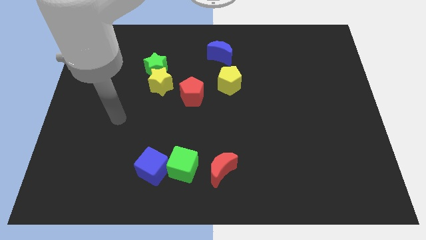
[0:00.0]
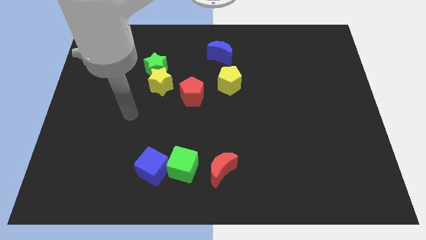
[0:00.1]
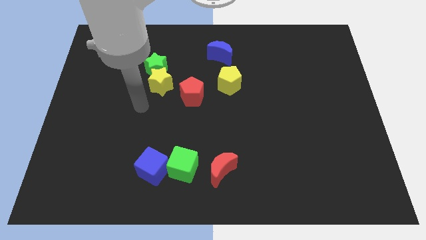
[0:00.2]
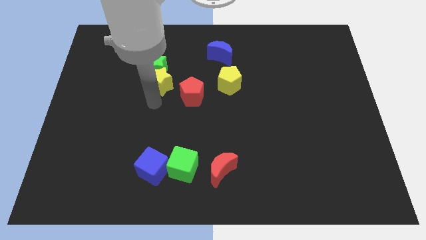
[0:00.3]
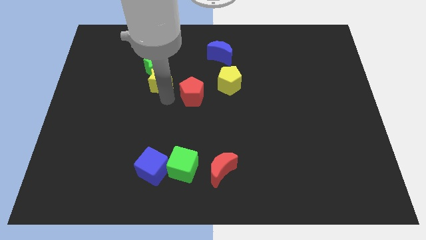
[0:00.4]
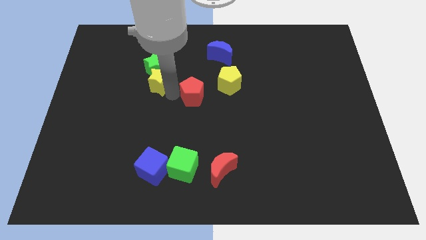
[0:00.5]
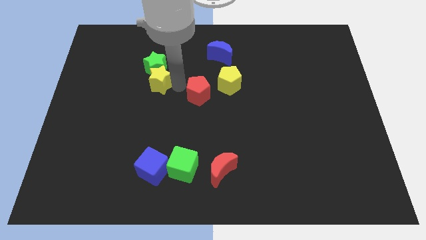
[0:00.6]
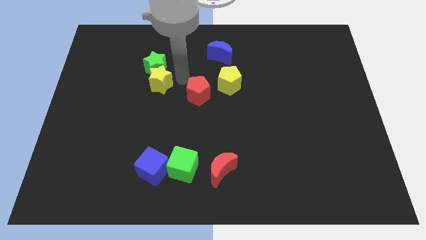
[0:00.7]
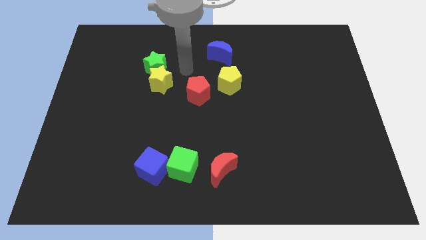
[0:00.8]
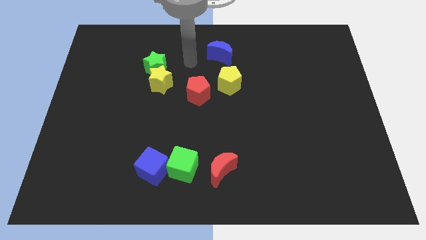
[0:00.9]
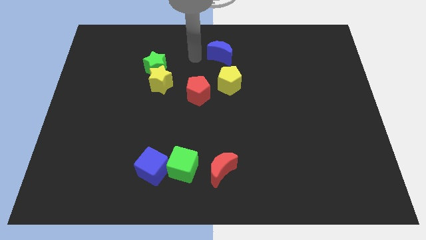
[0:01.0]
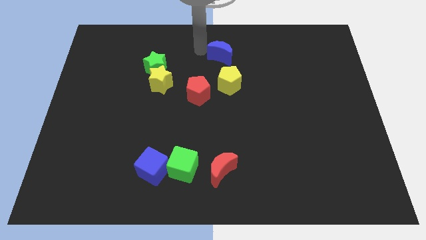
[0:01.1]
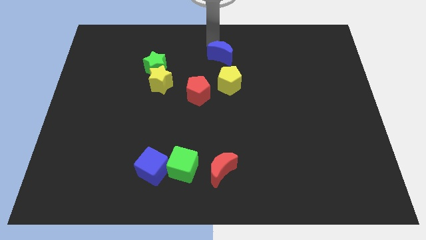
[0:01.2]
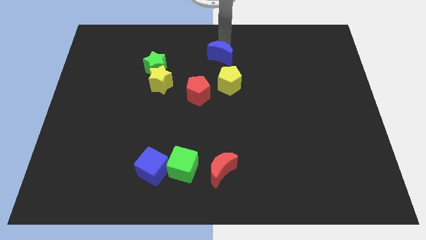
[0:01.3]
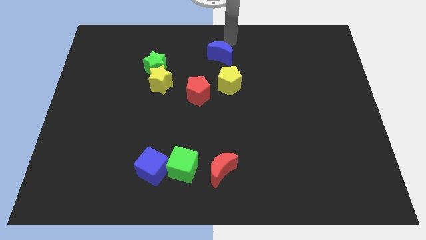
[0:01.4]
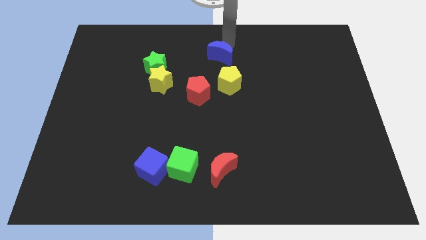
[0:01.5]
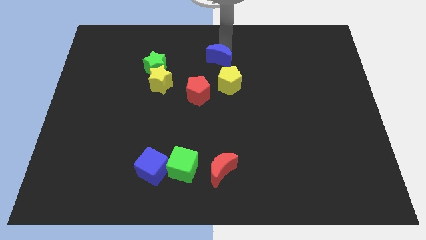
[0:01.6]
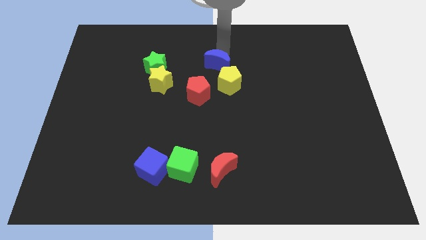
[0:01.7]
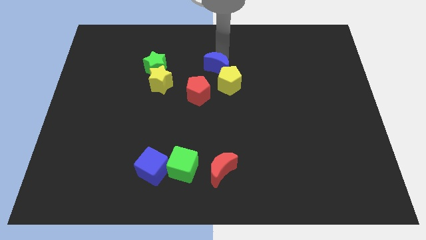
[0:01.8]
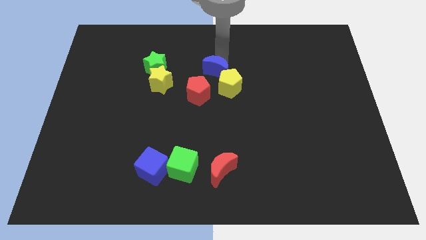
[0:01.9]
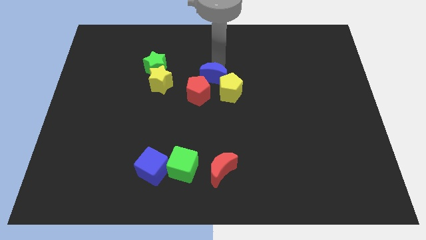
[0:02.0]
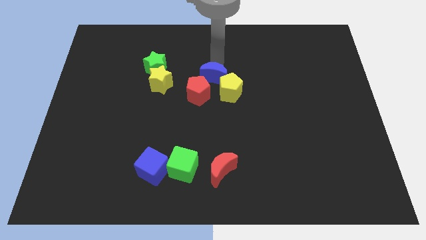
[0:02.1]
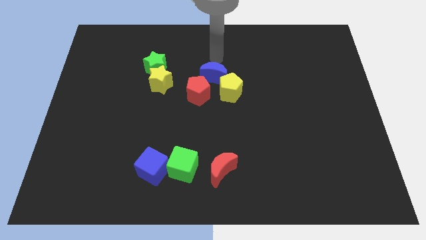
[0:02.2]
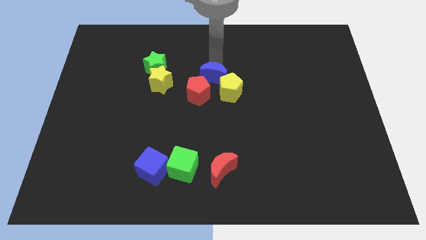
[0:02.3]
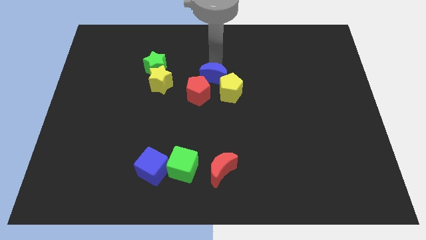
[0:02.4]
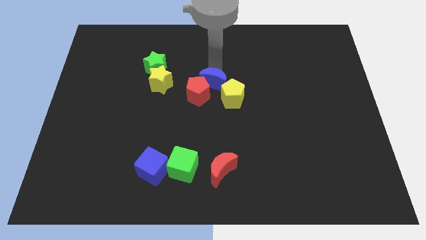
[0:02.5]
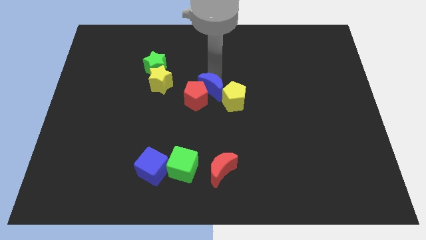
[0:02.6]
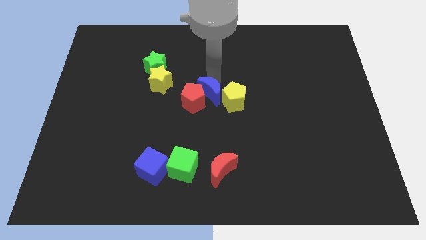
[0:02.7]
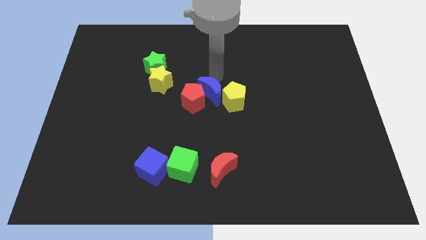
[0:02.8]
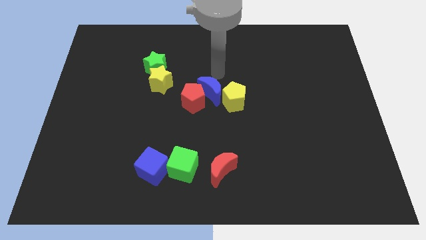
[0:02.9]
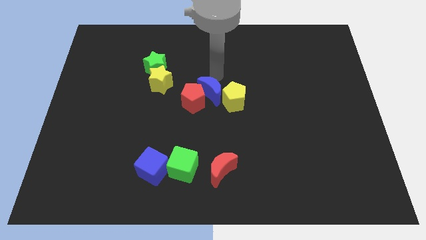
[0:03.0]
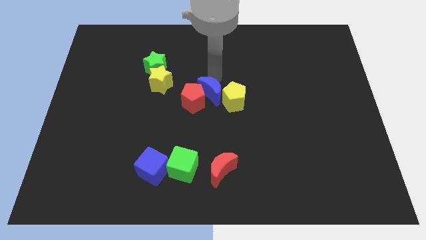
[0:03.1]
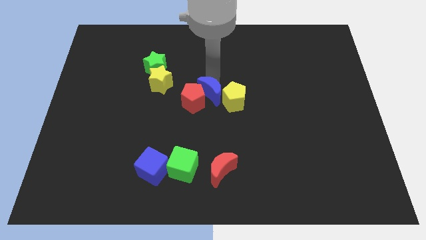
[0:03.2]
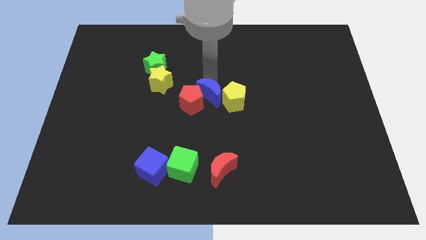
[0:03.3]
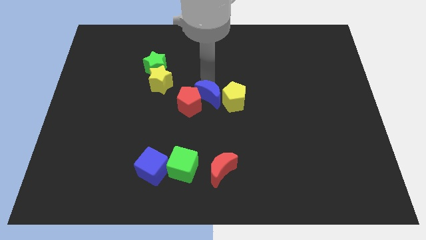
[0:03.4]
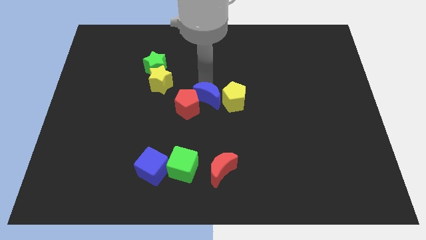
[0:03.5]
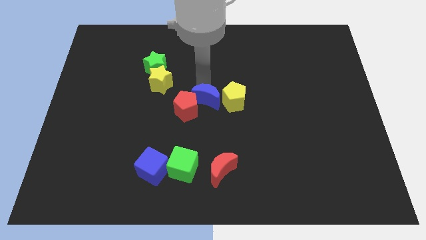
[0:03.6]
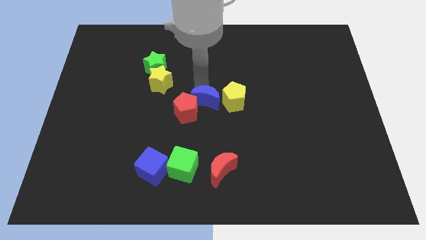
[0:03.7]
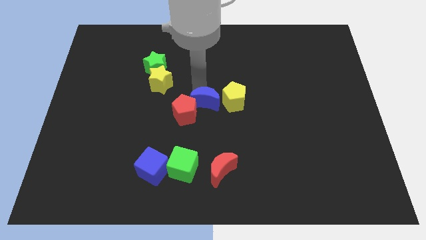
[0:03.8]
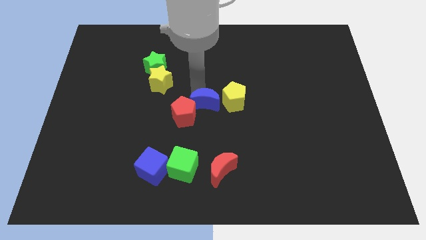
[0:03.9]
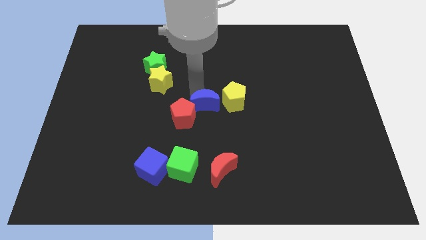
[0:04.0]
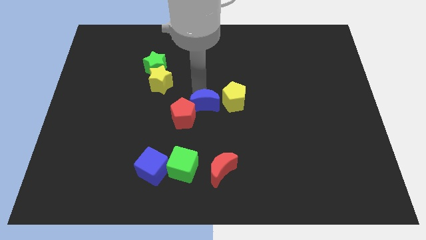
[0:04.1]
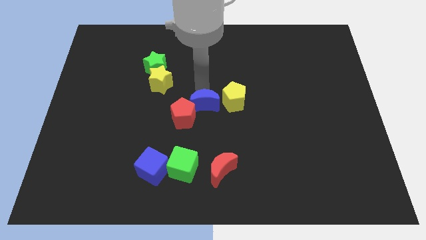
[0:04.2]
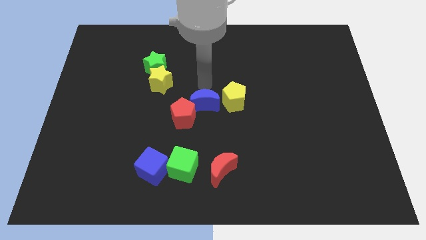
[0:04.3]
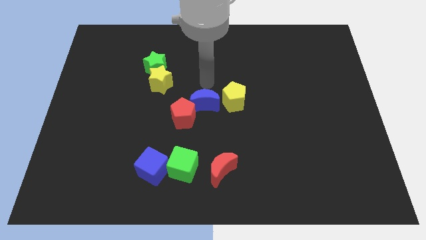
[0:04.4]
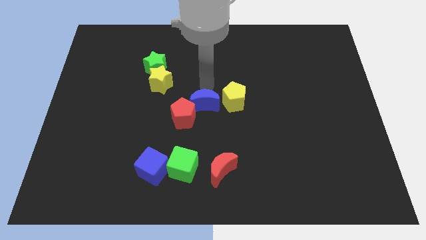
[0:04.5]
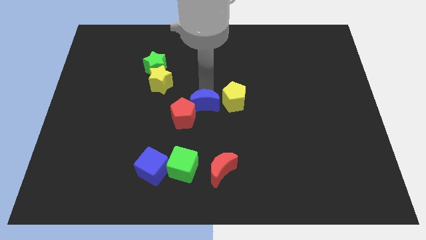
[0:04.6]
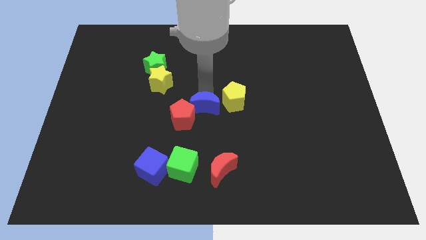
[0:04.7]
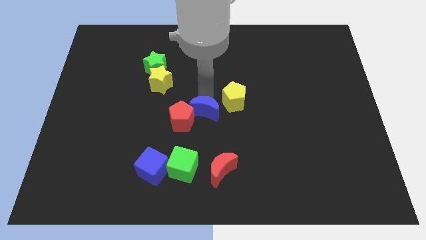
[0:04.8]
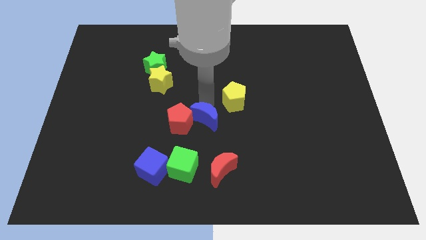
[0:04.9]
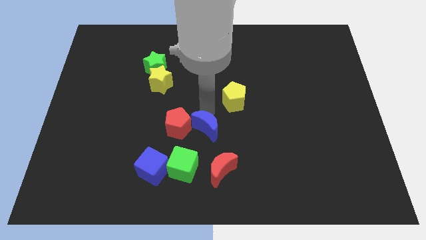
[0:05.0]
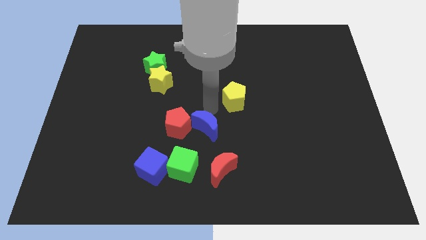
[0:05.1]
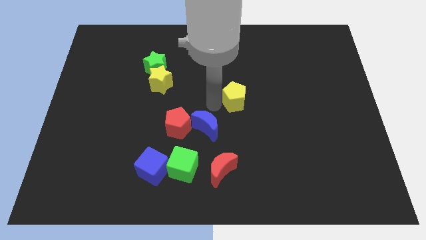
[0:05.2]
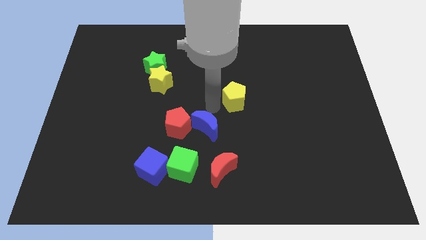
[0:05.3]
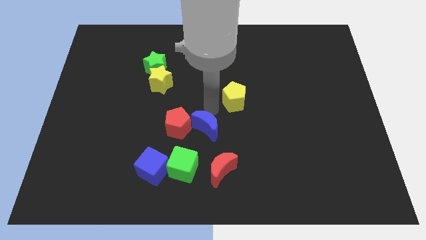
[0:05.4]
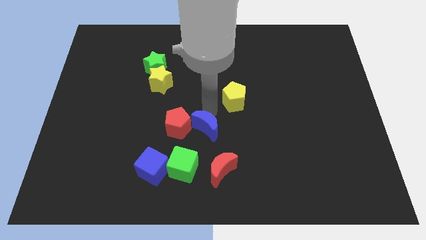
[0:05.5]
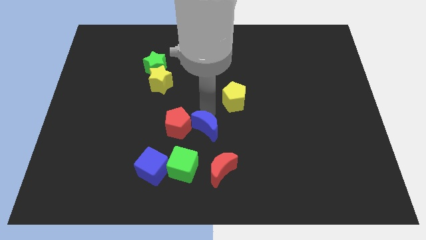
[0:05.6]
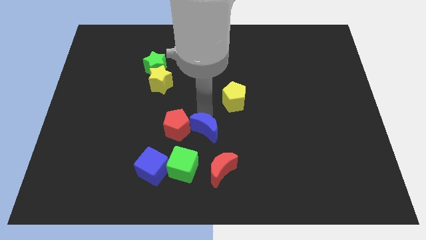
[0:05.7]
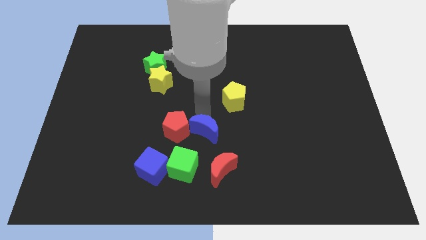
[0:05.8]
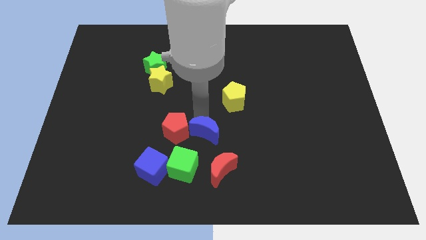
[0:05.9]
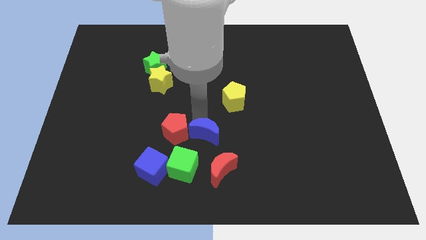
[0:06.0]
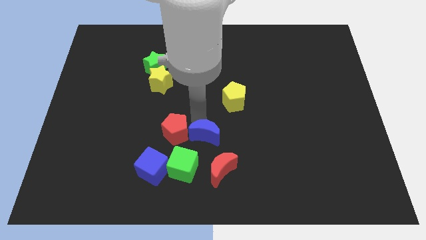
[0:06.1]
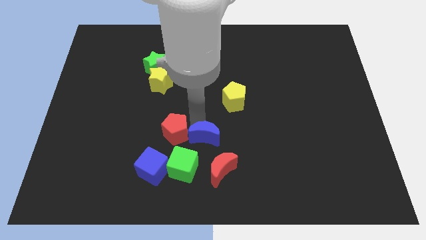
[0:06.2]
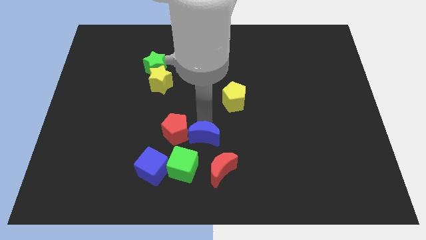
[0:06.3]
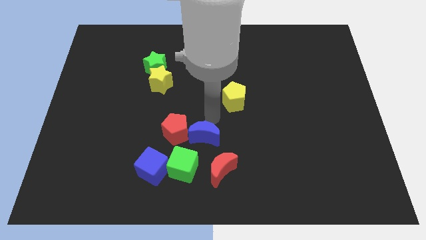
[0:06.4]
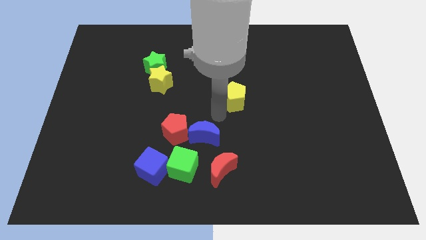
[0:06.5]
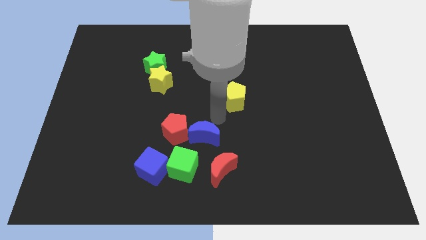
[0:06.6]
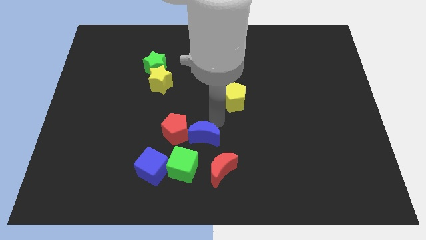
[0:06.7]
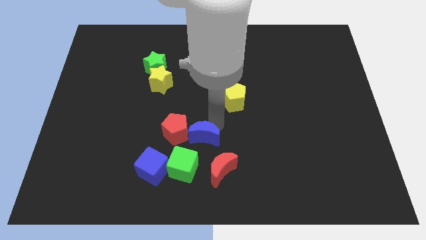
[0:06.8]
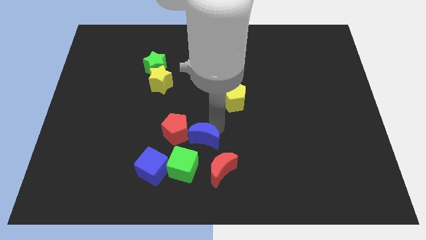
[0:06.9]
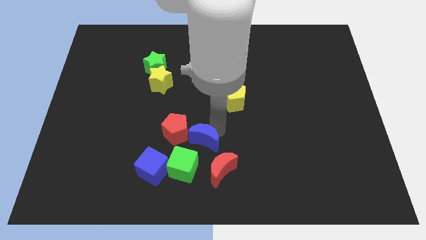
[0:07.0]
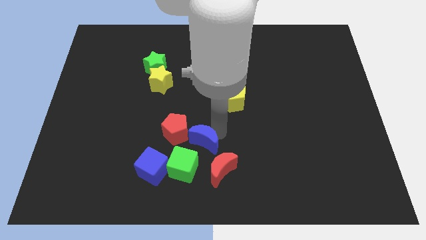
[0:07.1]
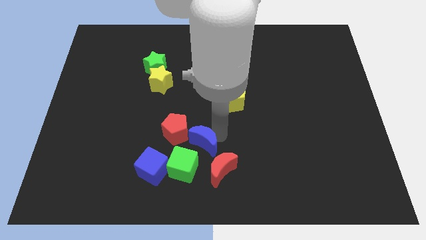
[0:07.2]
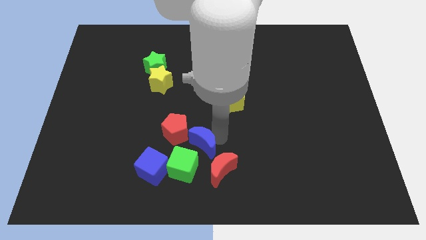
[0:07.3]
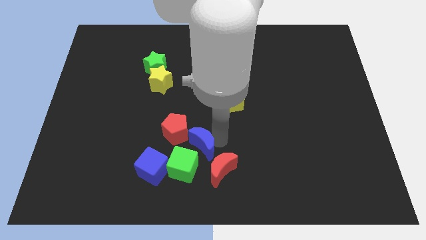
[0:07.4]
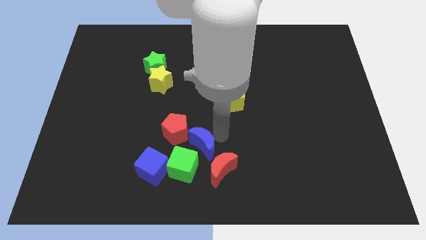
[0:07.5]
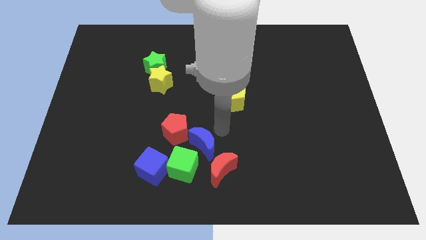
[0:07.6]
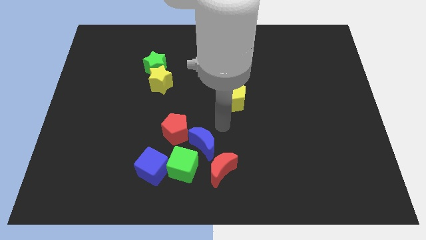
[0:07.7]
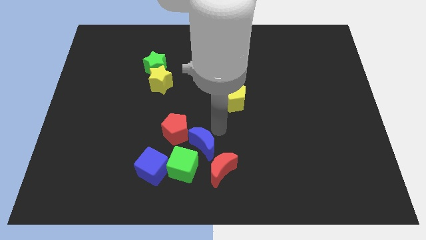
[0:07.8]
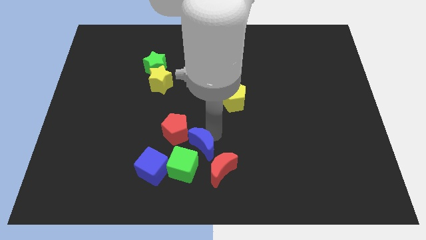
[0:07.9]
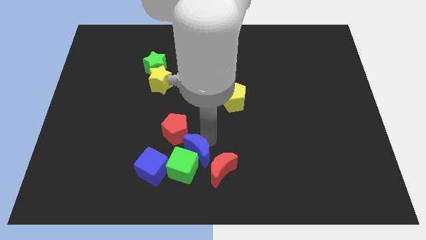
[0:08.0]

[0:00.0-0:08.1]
put the blue moon close to the green cube
